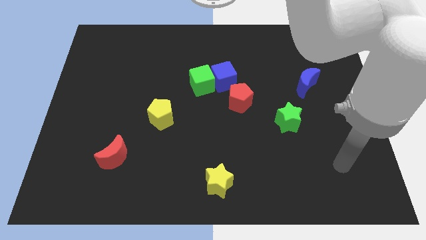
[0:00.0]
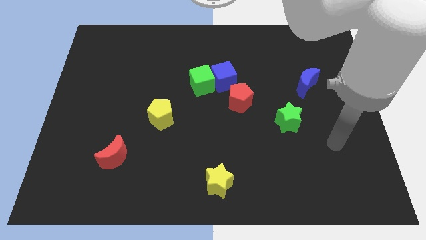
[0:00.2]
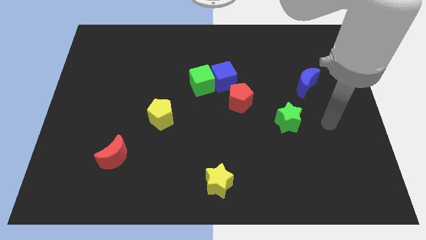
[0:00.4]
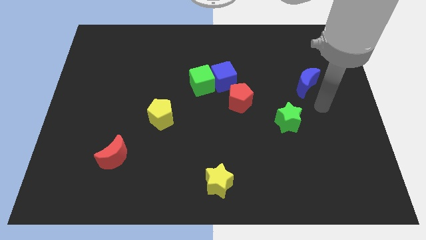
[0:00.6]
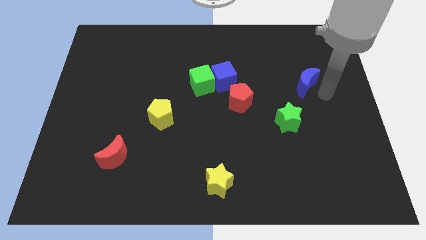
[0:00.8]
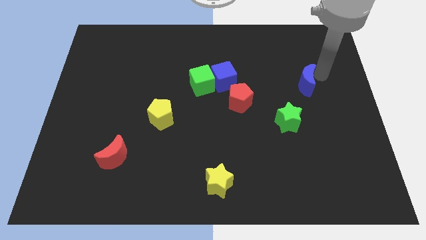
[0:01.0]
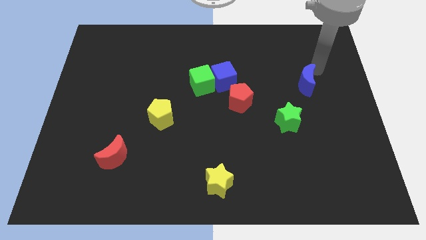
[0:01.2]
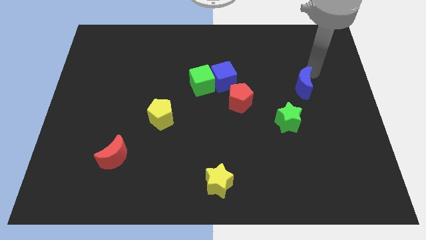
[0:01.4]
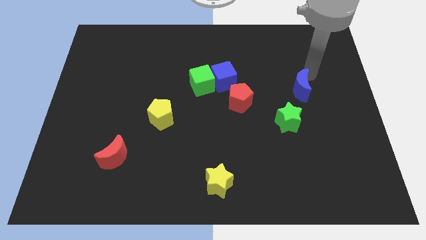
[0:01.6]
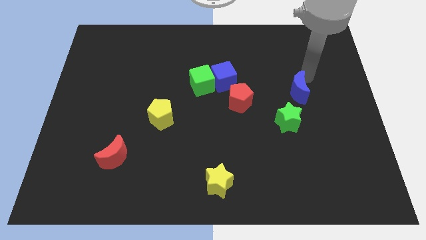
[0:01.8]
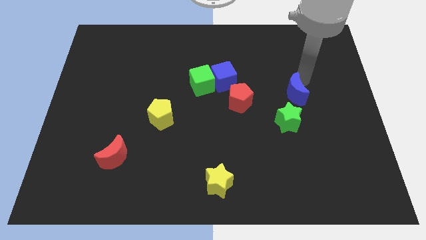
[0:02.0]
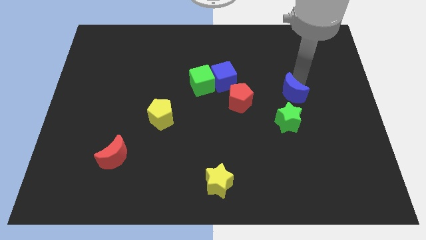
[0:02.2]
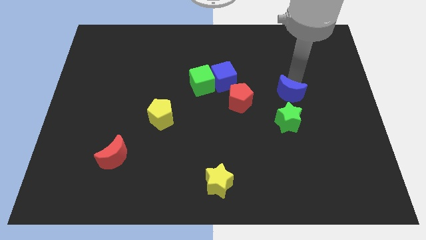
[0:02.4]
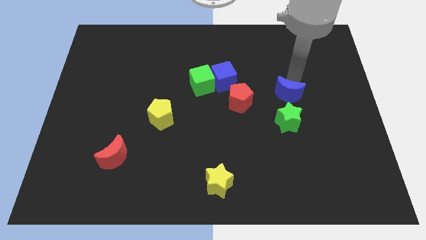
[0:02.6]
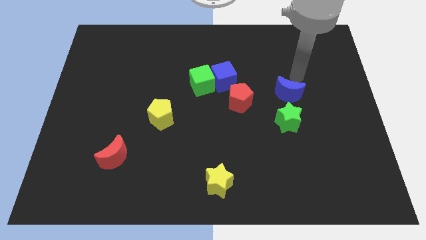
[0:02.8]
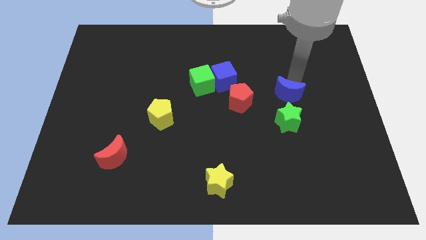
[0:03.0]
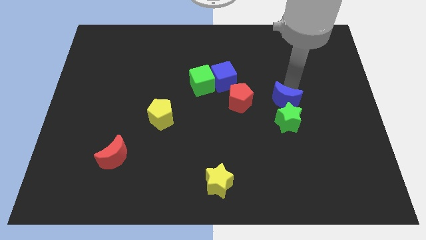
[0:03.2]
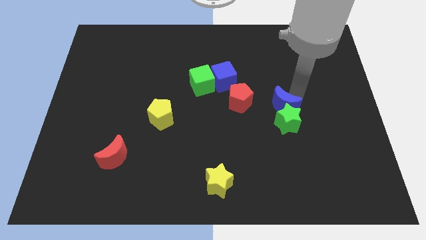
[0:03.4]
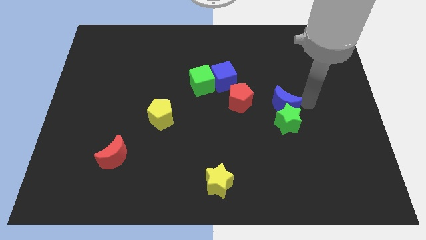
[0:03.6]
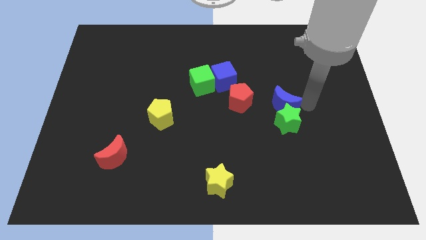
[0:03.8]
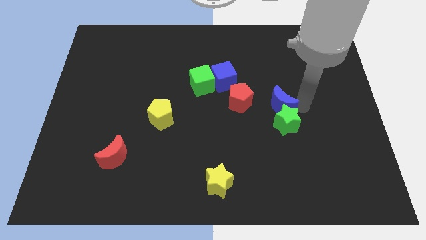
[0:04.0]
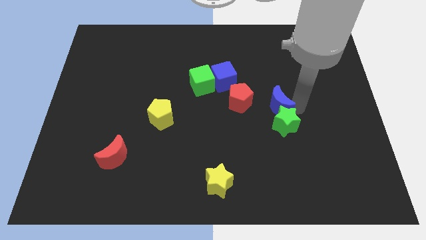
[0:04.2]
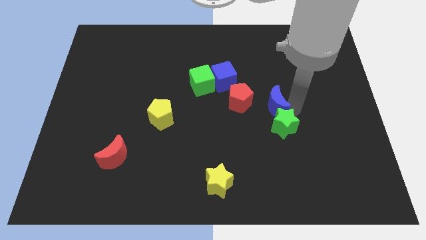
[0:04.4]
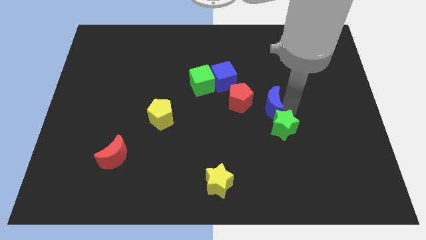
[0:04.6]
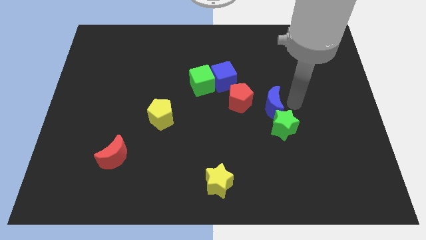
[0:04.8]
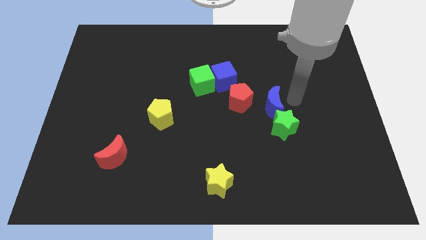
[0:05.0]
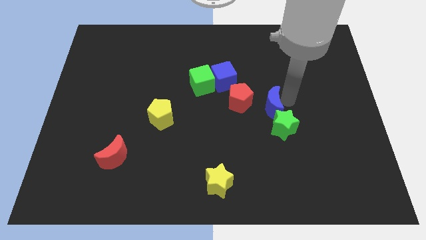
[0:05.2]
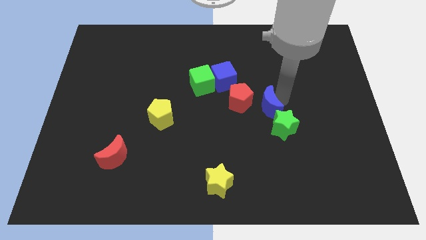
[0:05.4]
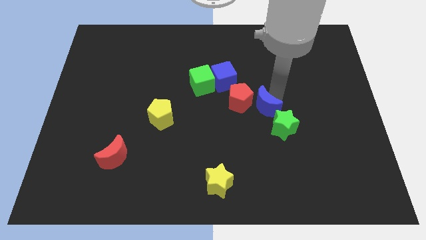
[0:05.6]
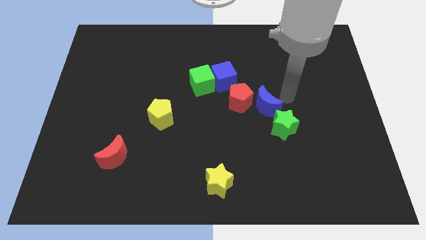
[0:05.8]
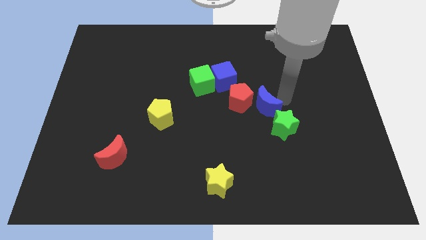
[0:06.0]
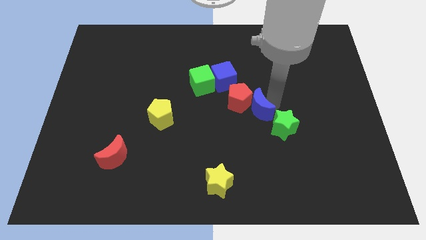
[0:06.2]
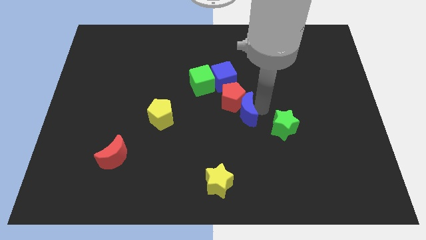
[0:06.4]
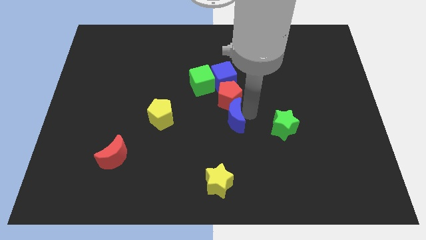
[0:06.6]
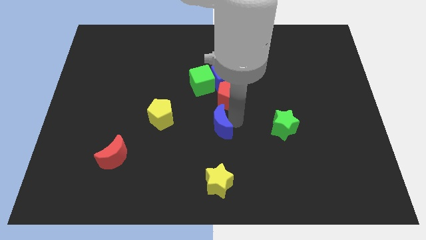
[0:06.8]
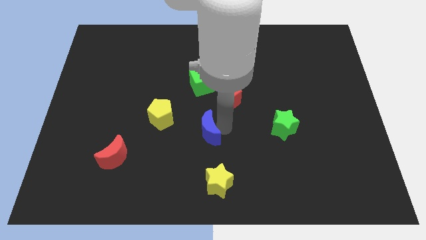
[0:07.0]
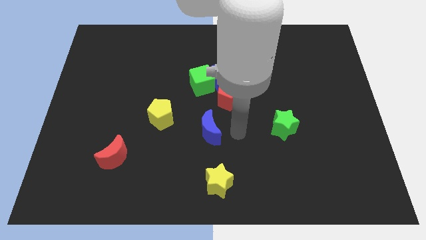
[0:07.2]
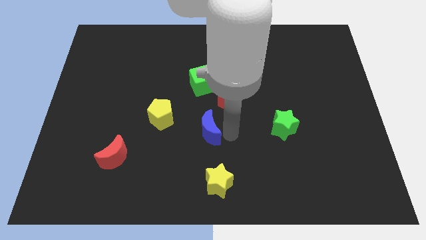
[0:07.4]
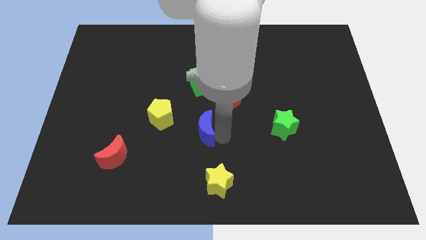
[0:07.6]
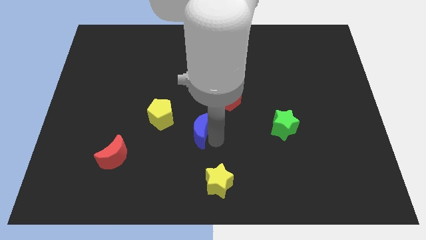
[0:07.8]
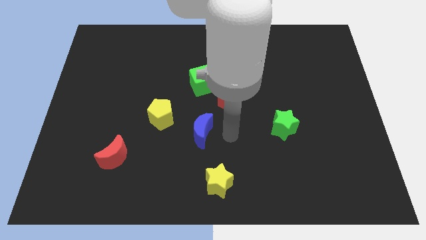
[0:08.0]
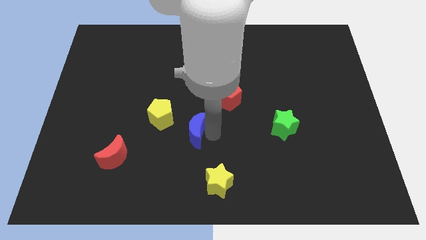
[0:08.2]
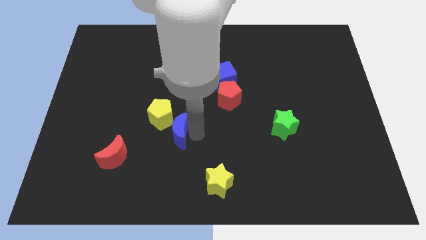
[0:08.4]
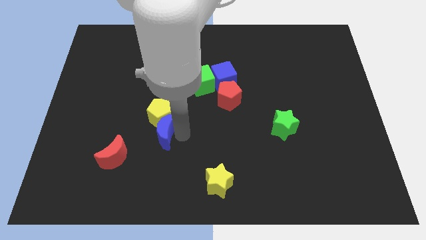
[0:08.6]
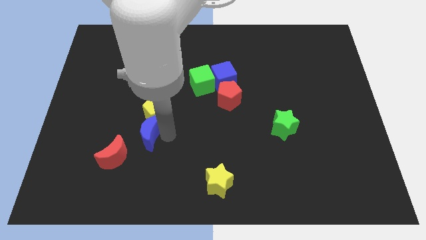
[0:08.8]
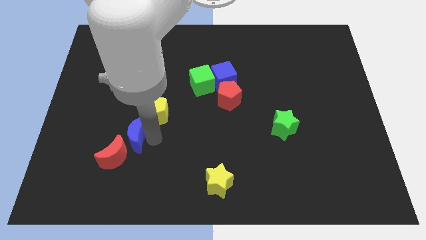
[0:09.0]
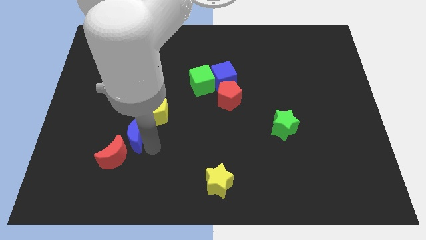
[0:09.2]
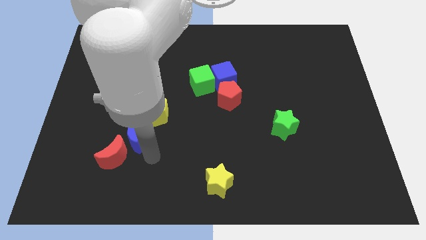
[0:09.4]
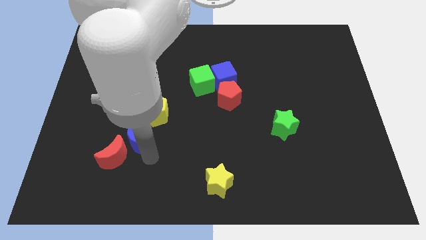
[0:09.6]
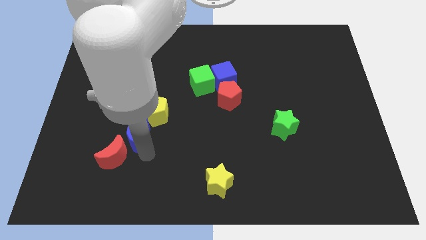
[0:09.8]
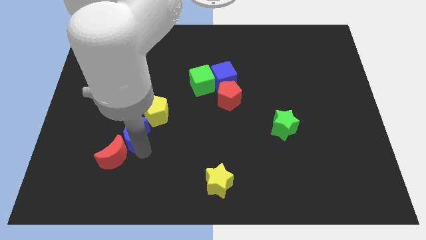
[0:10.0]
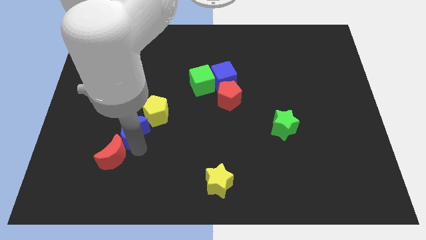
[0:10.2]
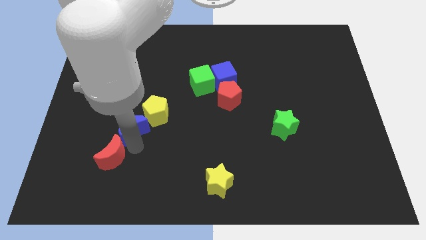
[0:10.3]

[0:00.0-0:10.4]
move the blue moon to the left of the yellow pentagon

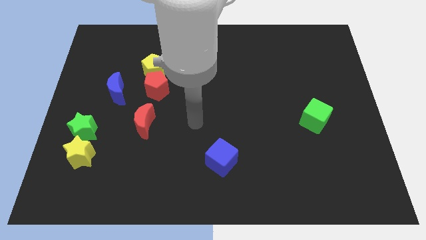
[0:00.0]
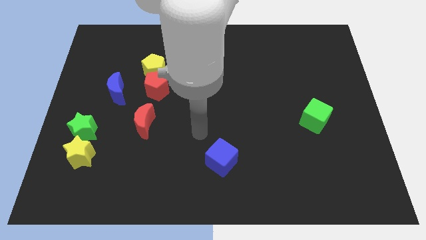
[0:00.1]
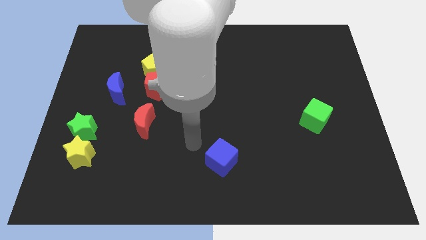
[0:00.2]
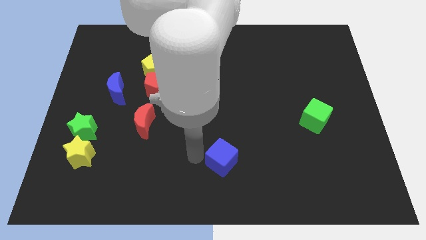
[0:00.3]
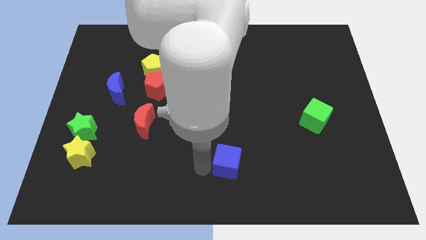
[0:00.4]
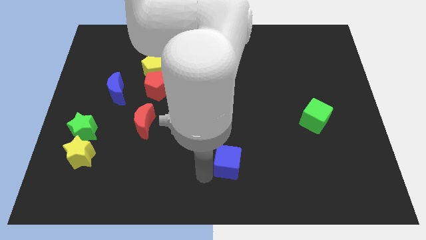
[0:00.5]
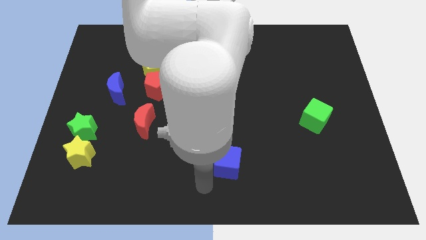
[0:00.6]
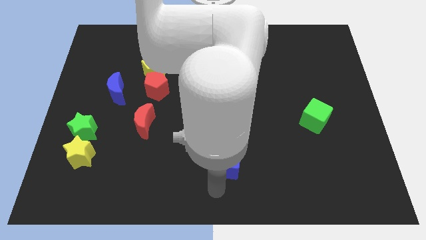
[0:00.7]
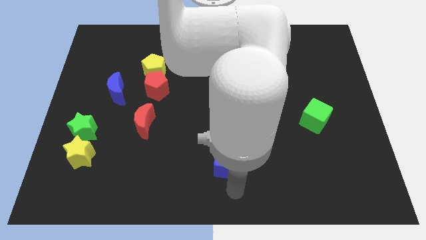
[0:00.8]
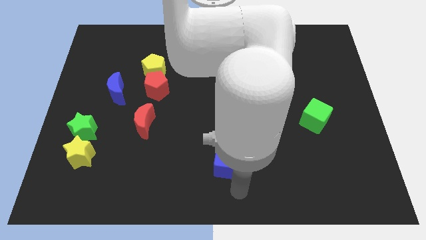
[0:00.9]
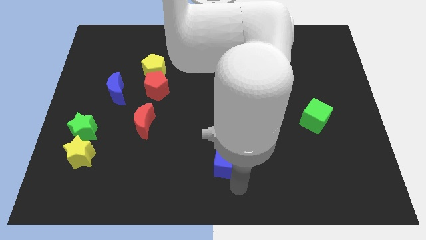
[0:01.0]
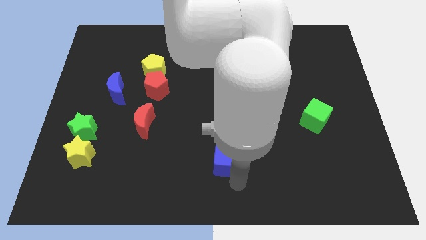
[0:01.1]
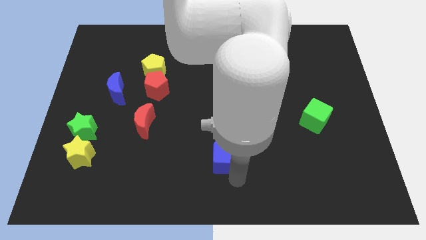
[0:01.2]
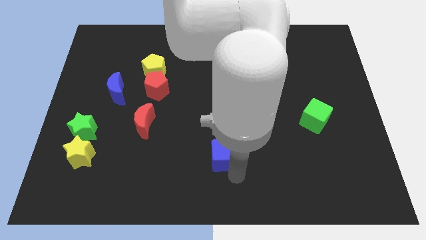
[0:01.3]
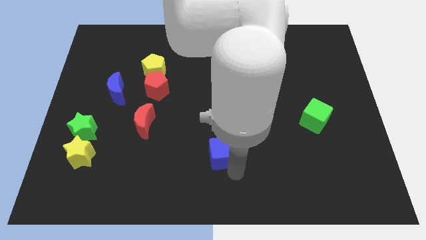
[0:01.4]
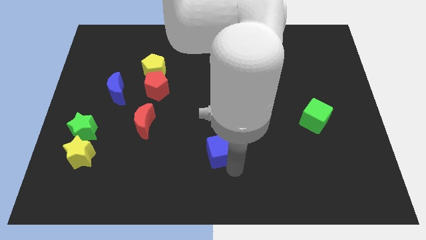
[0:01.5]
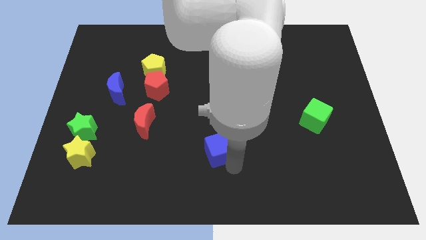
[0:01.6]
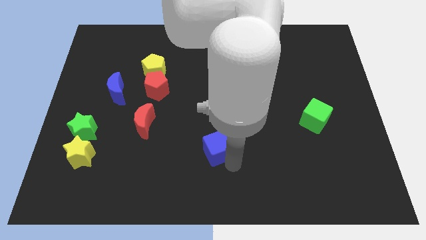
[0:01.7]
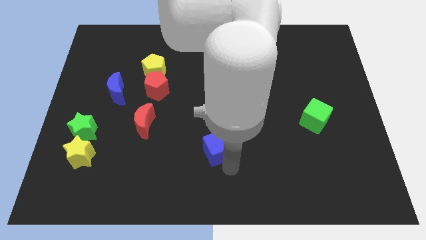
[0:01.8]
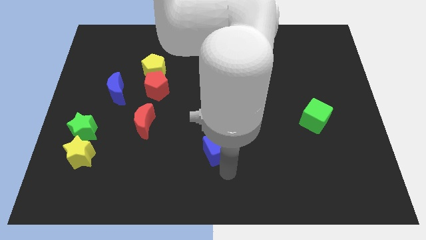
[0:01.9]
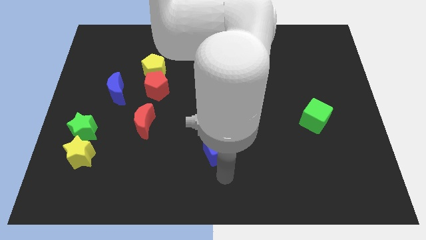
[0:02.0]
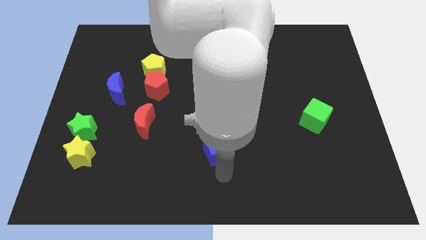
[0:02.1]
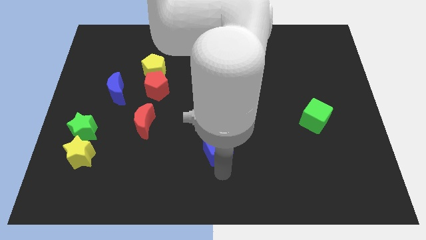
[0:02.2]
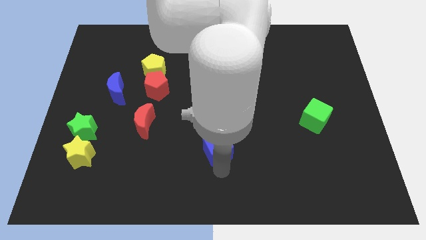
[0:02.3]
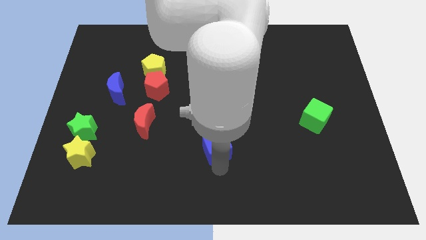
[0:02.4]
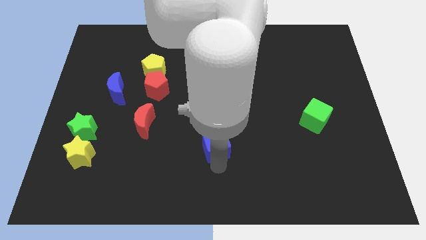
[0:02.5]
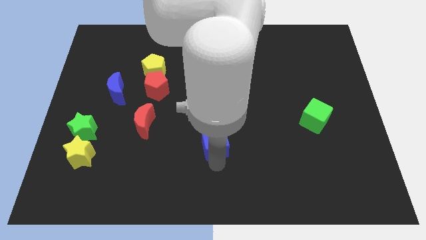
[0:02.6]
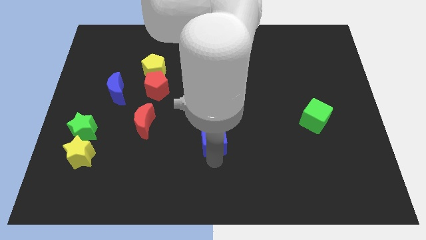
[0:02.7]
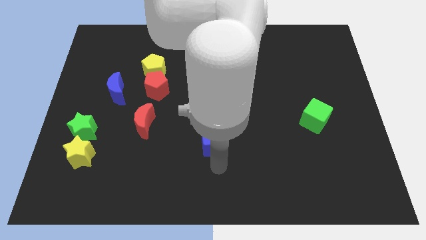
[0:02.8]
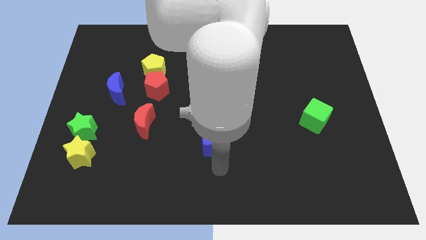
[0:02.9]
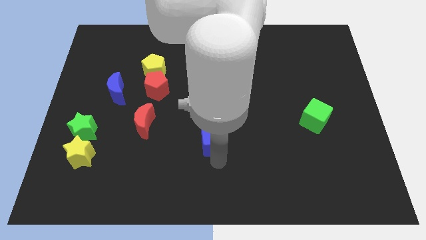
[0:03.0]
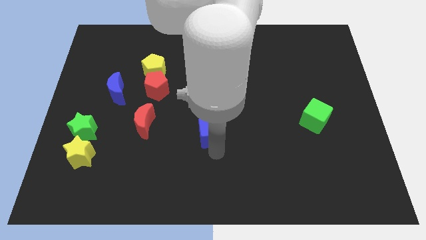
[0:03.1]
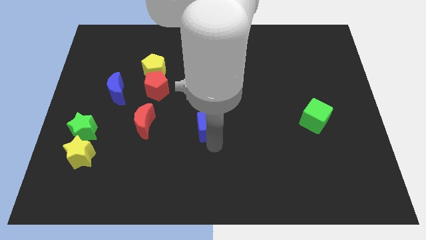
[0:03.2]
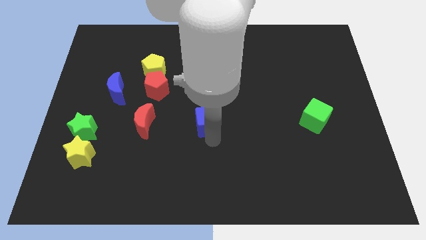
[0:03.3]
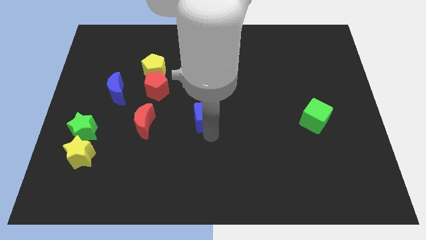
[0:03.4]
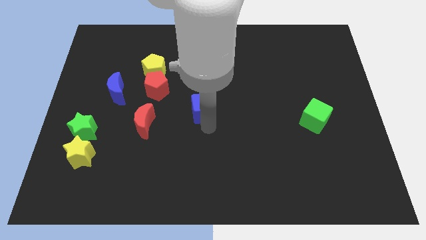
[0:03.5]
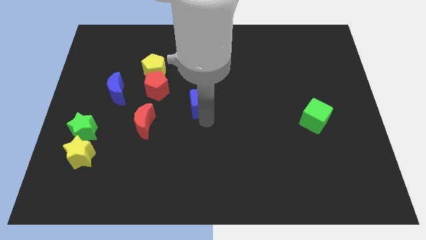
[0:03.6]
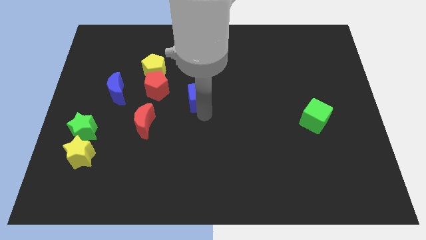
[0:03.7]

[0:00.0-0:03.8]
put the blue cube to the right side of the red pentagon
